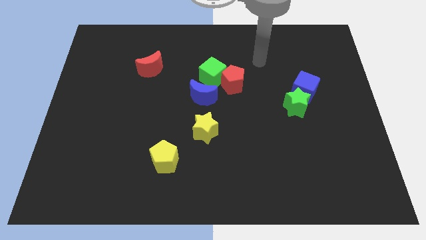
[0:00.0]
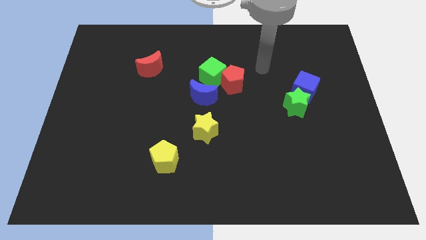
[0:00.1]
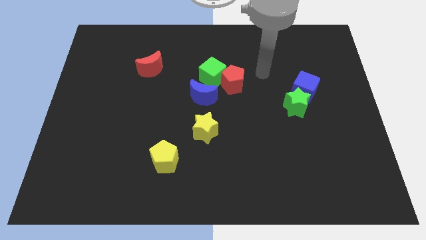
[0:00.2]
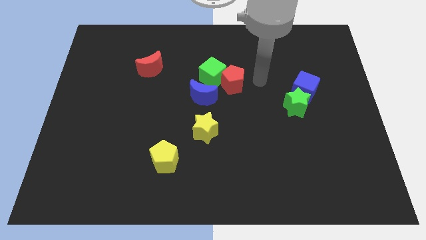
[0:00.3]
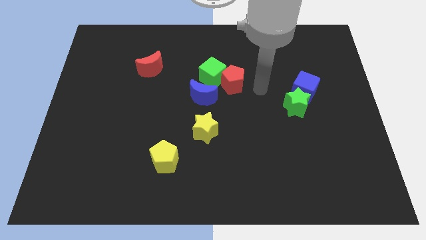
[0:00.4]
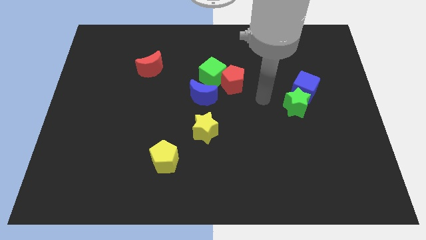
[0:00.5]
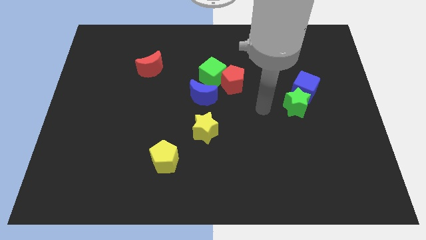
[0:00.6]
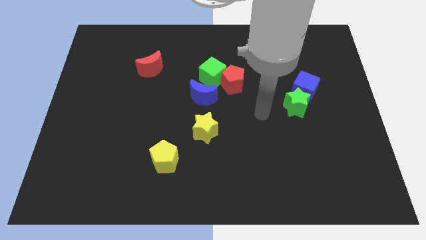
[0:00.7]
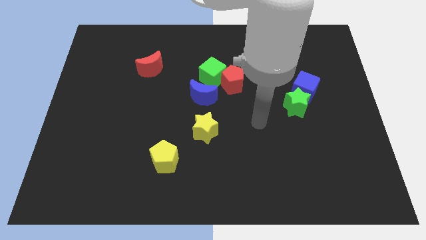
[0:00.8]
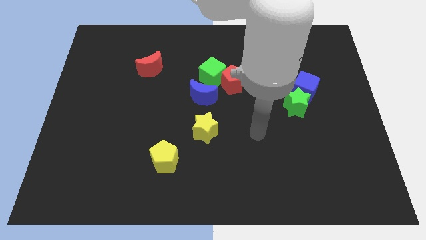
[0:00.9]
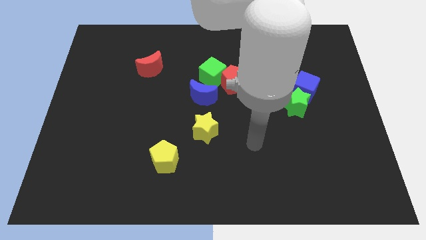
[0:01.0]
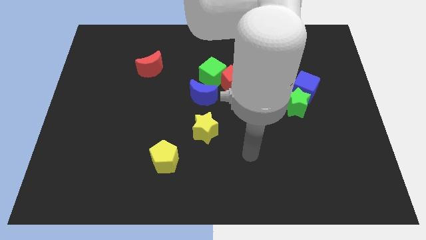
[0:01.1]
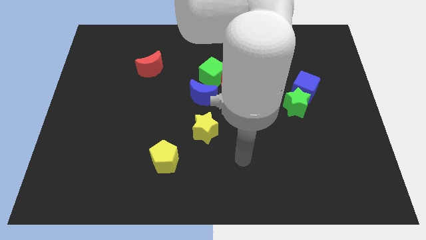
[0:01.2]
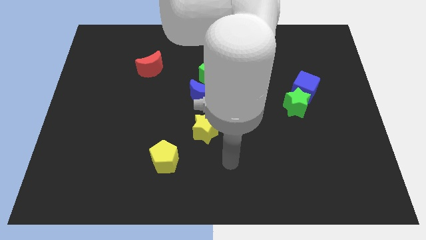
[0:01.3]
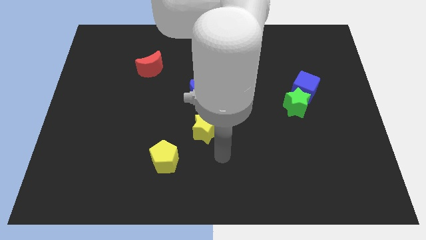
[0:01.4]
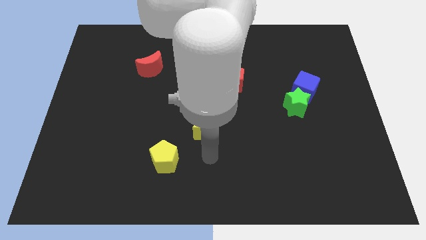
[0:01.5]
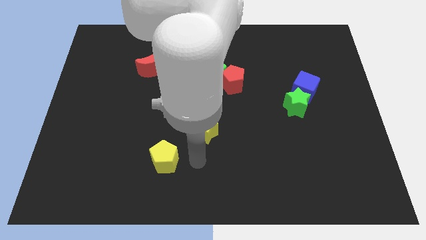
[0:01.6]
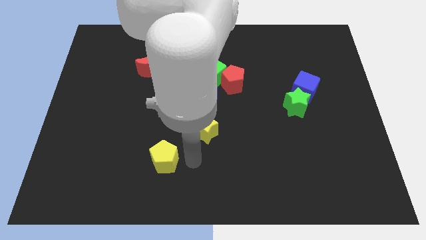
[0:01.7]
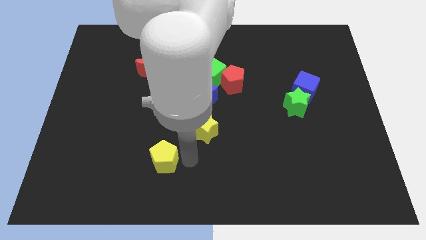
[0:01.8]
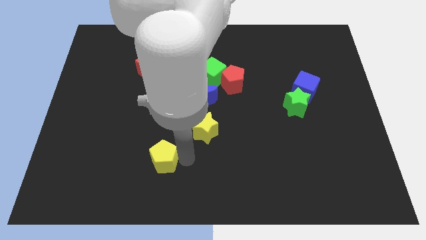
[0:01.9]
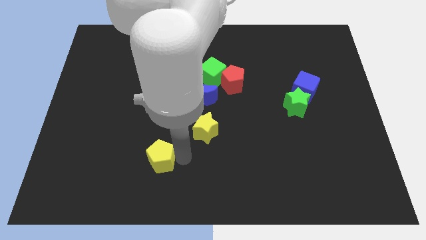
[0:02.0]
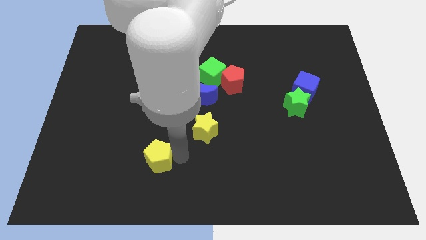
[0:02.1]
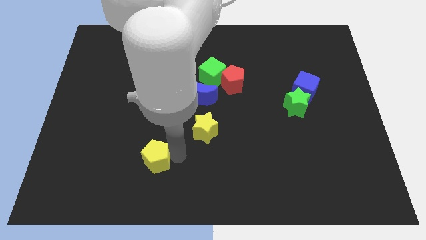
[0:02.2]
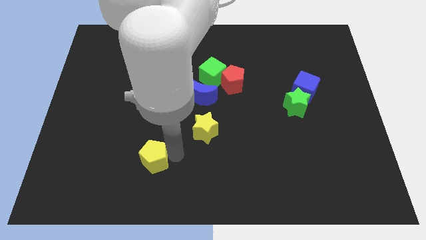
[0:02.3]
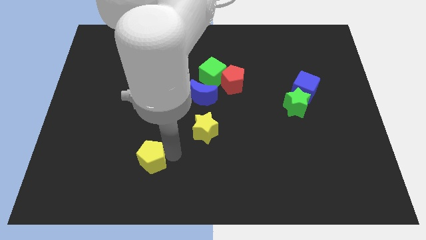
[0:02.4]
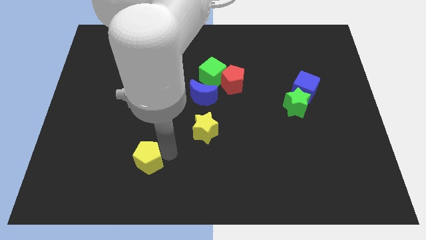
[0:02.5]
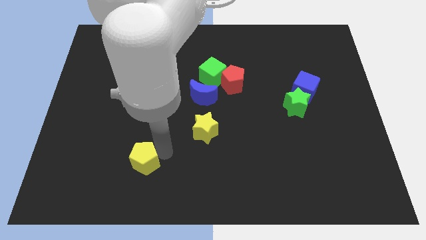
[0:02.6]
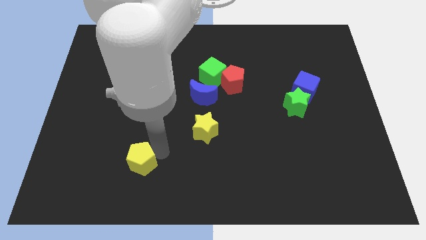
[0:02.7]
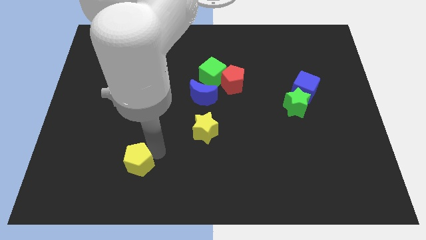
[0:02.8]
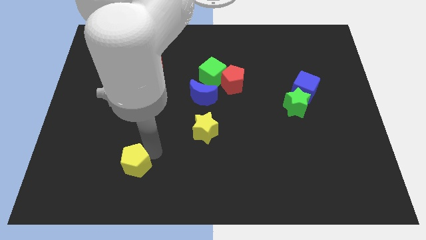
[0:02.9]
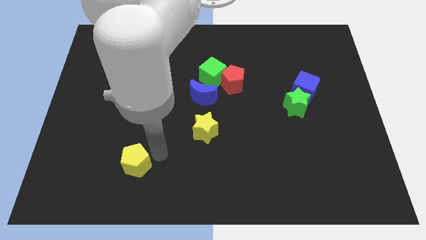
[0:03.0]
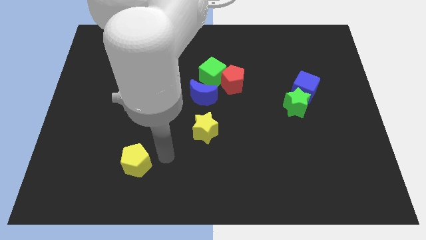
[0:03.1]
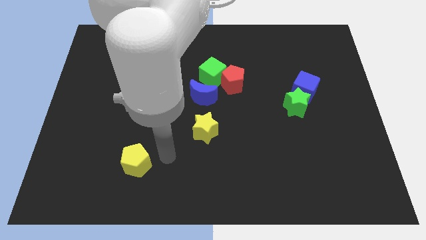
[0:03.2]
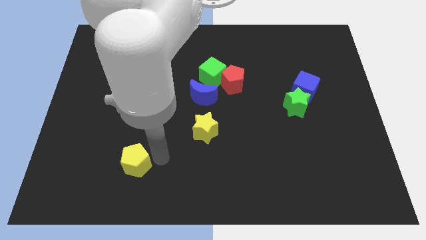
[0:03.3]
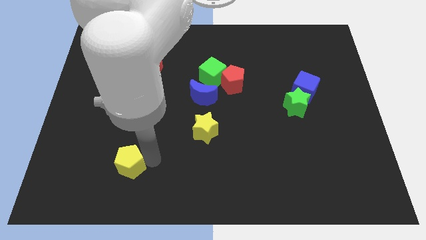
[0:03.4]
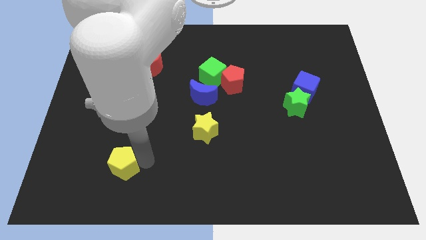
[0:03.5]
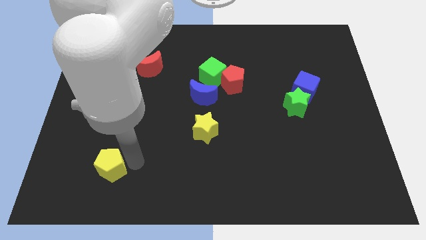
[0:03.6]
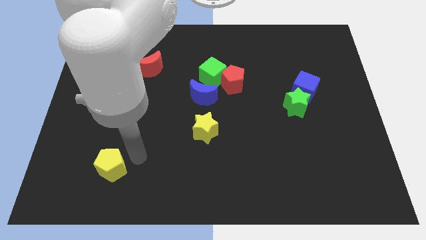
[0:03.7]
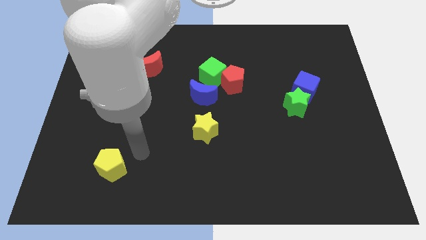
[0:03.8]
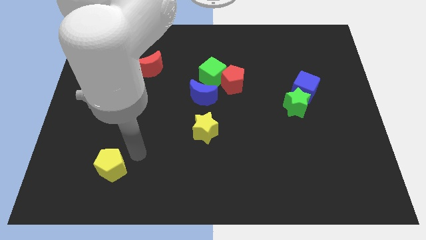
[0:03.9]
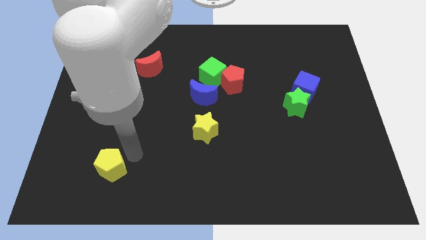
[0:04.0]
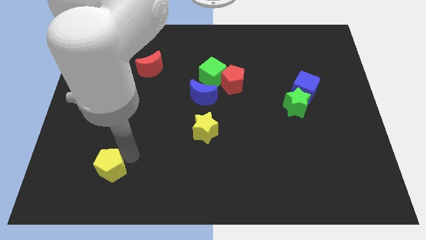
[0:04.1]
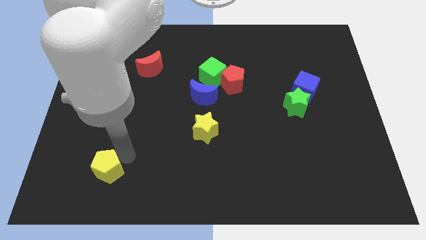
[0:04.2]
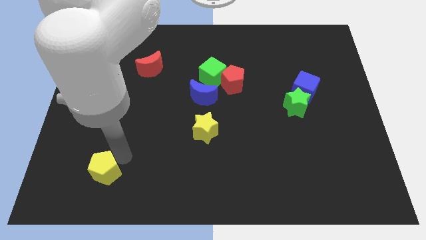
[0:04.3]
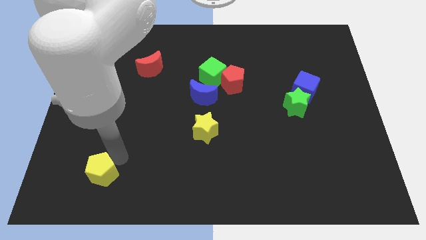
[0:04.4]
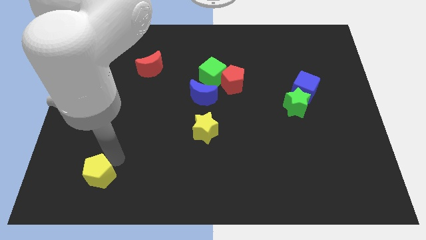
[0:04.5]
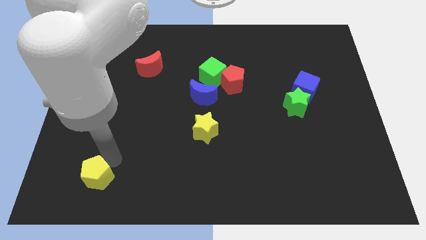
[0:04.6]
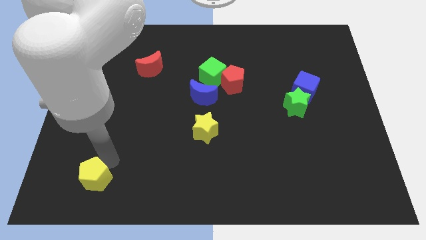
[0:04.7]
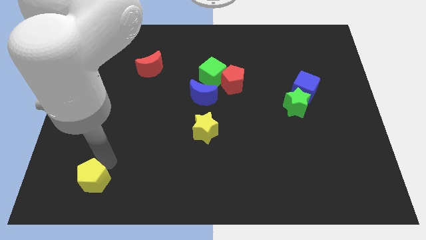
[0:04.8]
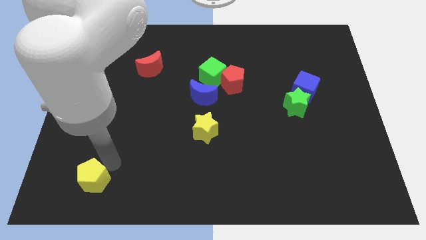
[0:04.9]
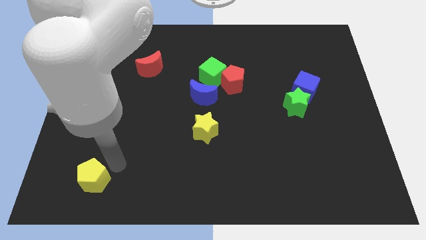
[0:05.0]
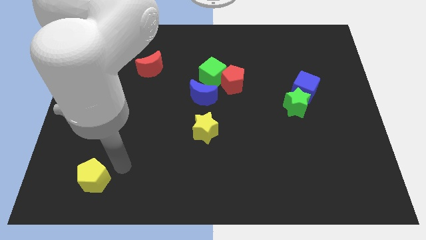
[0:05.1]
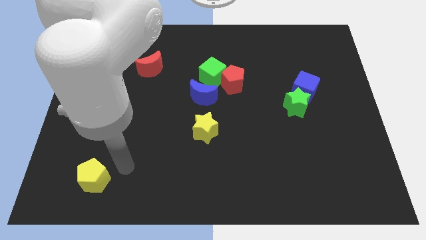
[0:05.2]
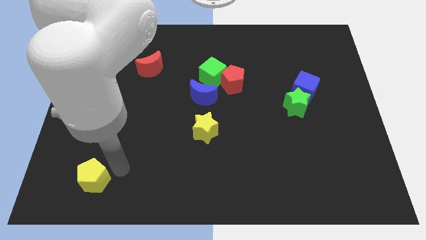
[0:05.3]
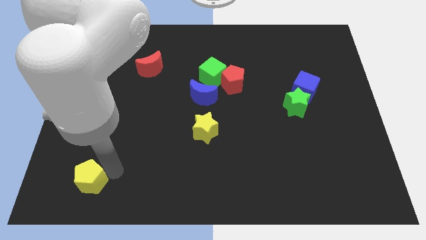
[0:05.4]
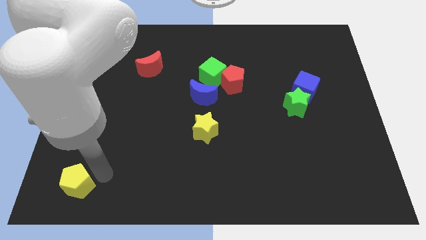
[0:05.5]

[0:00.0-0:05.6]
move the yellow pentagon to the bottom left corner

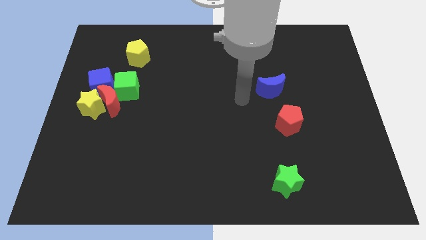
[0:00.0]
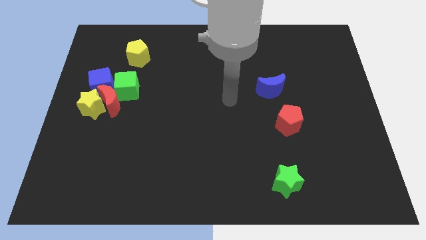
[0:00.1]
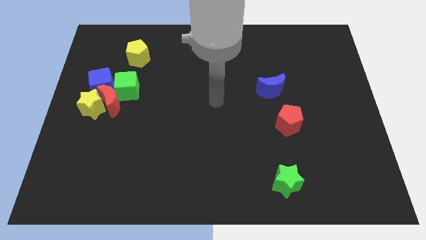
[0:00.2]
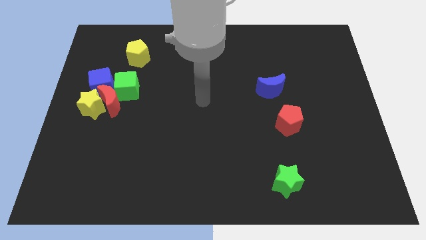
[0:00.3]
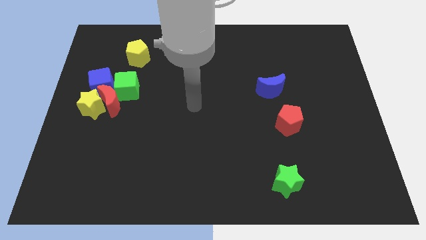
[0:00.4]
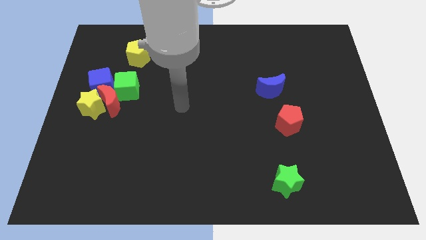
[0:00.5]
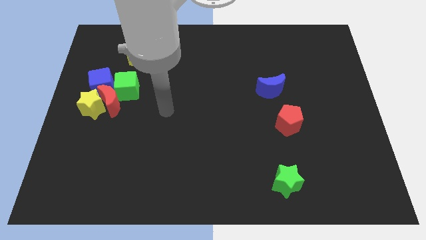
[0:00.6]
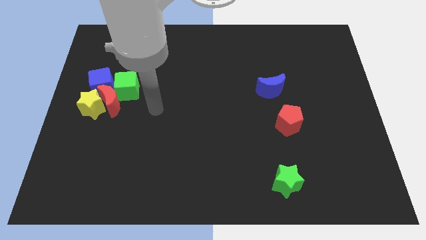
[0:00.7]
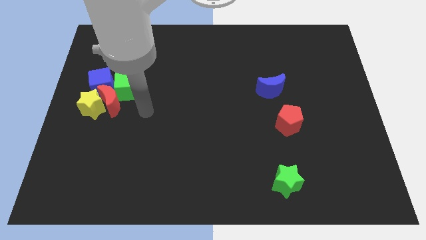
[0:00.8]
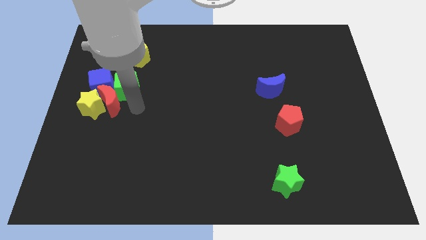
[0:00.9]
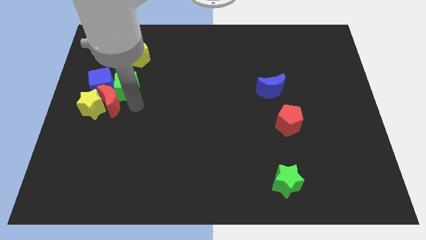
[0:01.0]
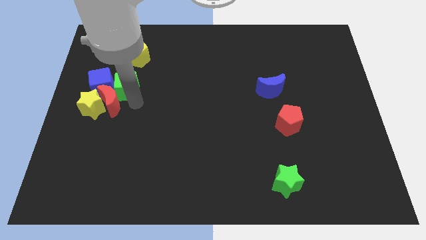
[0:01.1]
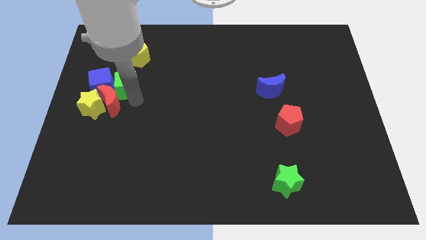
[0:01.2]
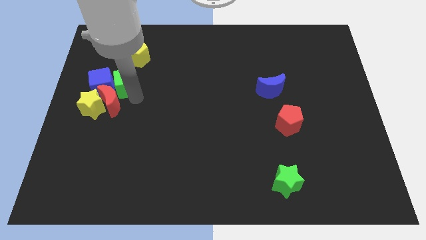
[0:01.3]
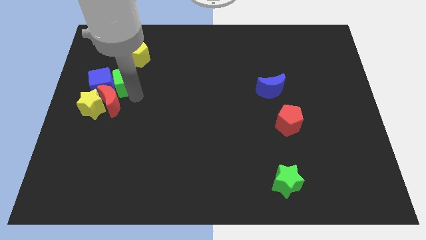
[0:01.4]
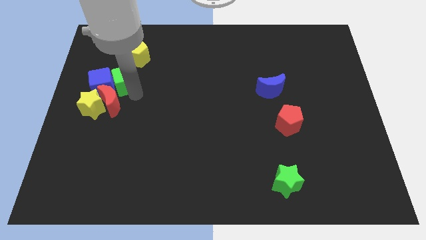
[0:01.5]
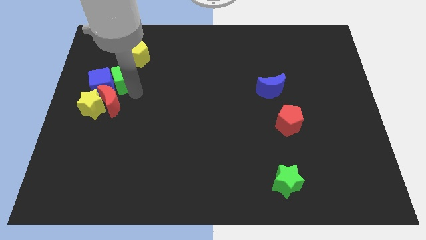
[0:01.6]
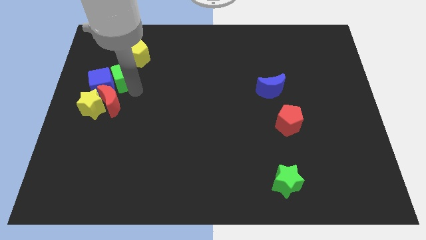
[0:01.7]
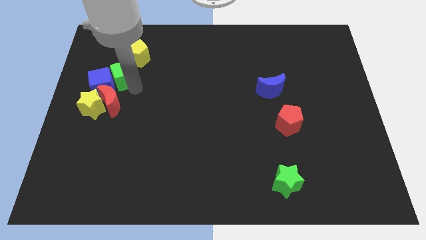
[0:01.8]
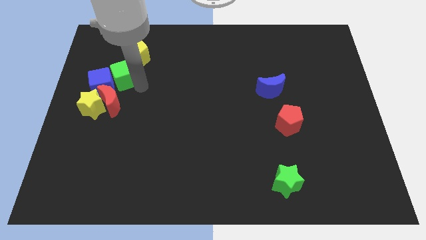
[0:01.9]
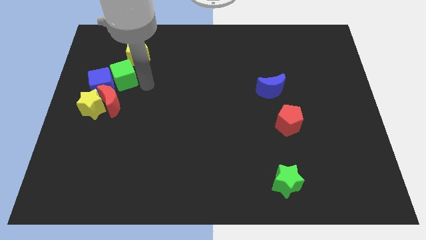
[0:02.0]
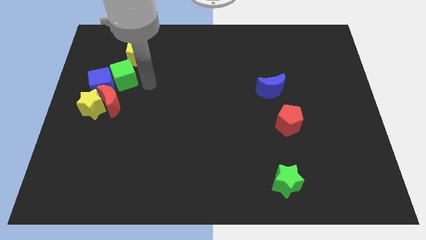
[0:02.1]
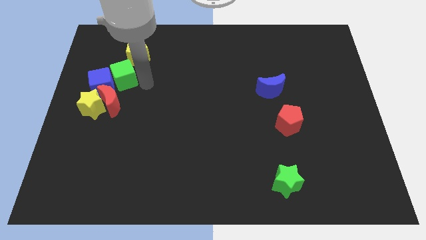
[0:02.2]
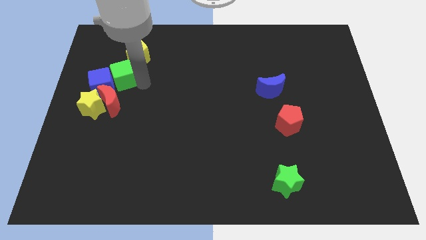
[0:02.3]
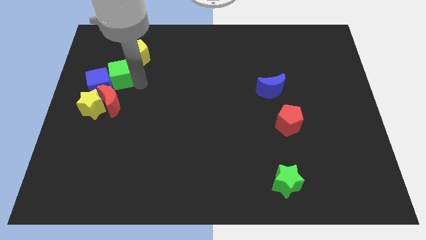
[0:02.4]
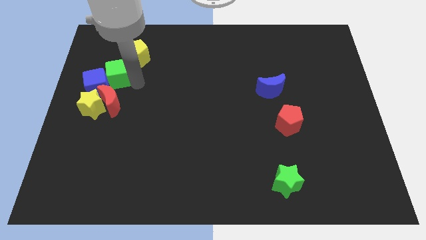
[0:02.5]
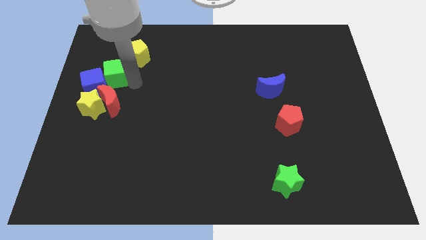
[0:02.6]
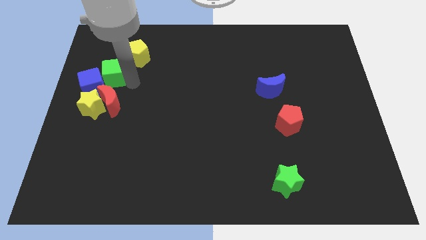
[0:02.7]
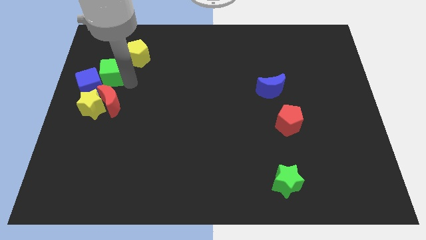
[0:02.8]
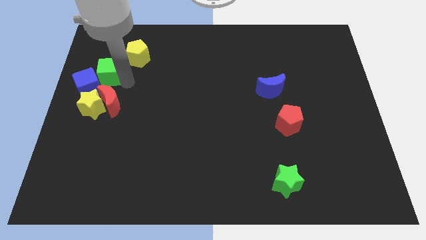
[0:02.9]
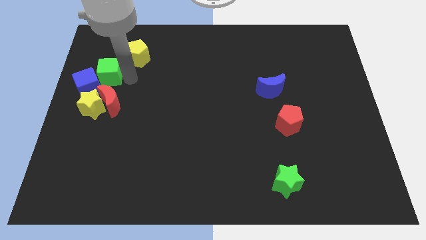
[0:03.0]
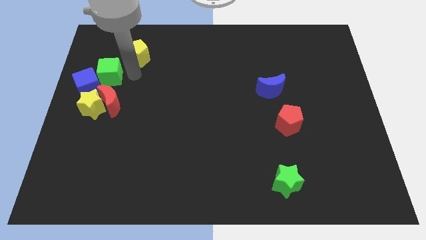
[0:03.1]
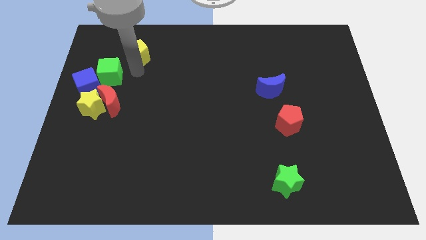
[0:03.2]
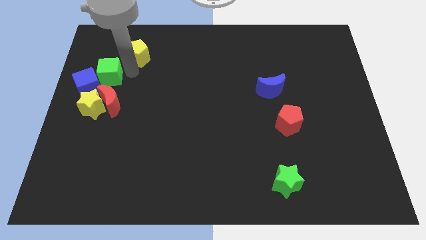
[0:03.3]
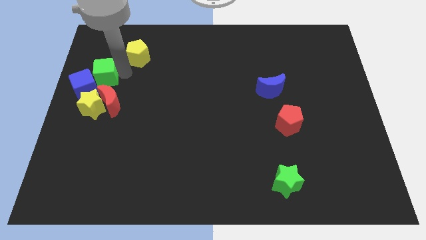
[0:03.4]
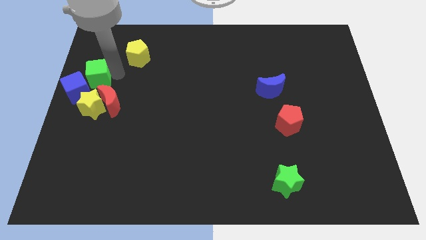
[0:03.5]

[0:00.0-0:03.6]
put the green cube to the left side
